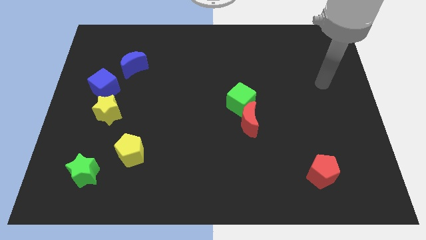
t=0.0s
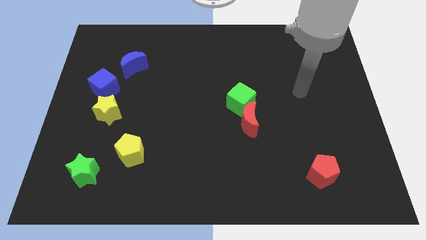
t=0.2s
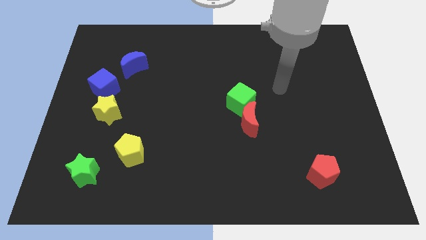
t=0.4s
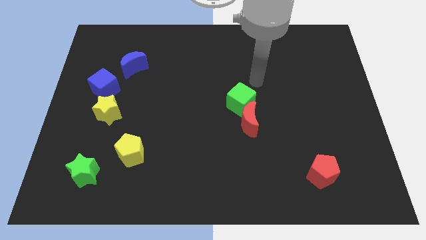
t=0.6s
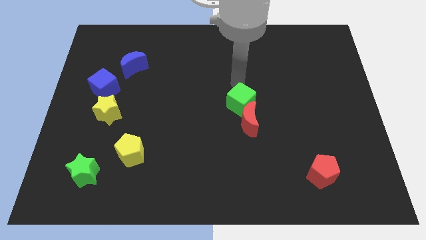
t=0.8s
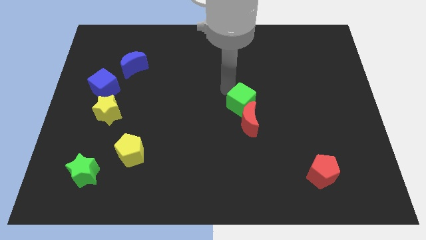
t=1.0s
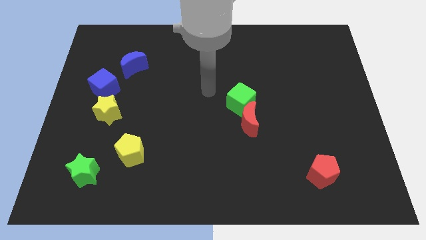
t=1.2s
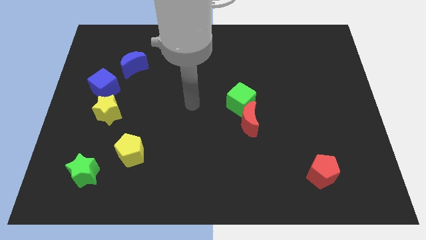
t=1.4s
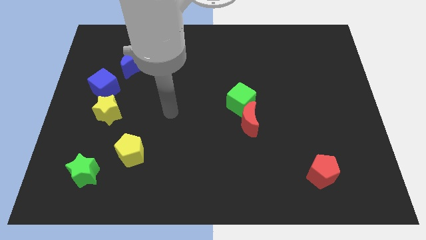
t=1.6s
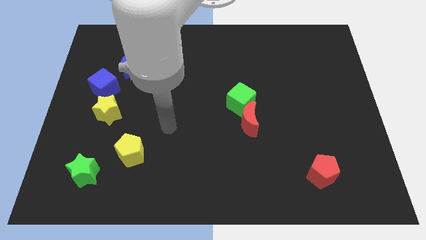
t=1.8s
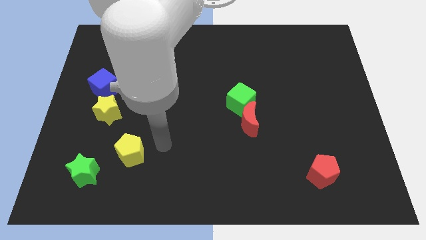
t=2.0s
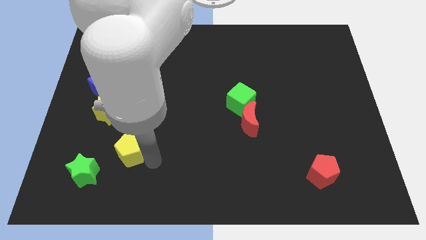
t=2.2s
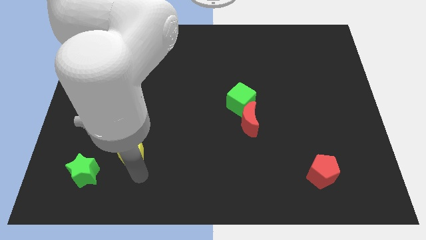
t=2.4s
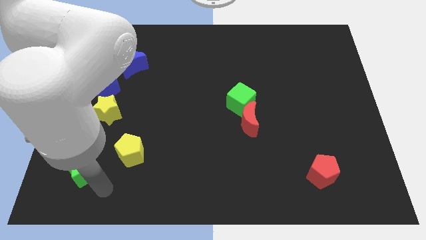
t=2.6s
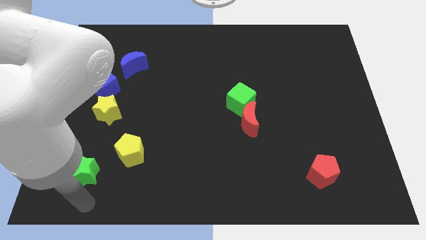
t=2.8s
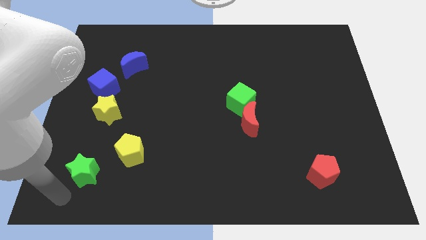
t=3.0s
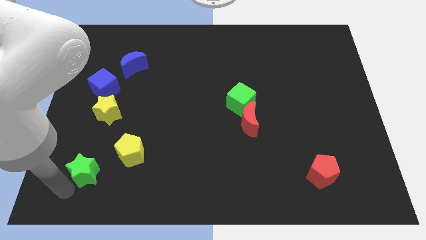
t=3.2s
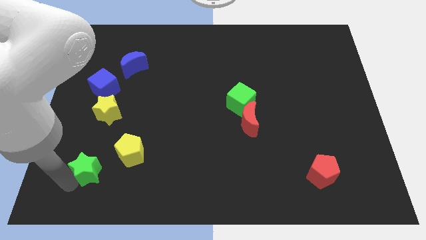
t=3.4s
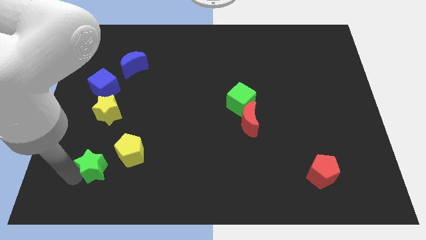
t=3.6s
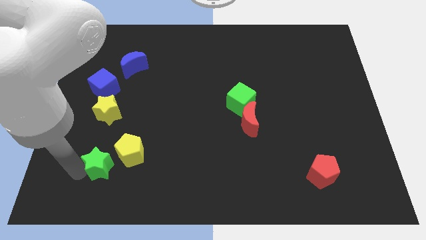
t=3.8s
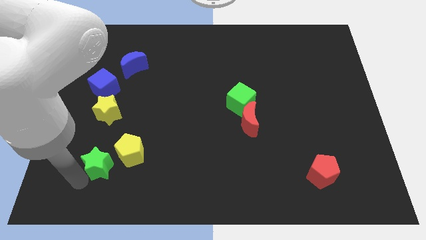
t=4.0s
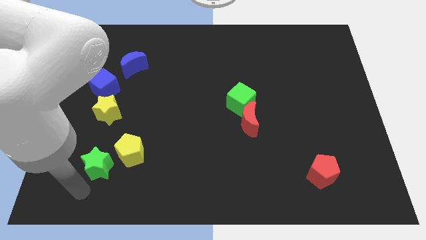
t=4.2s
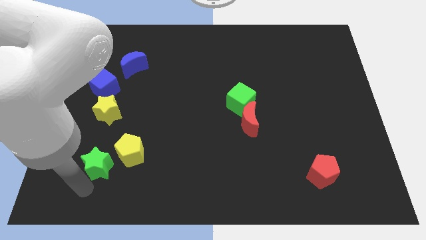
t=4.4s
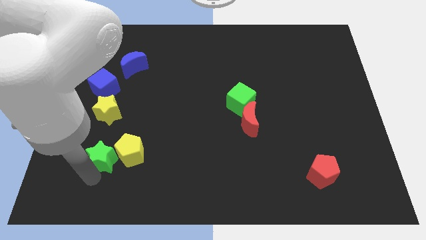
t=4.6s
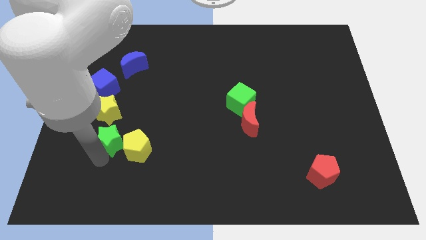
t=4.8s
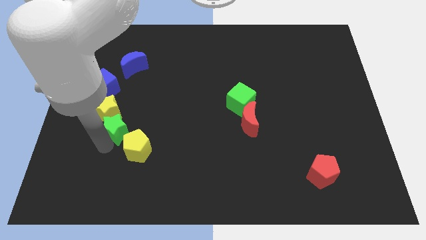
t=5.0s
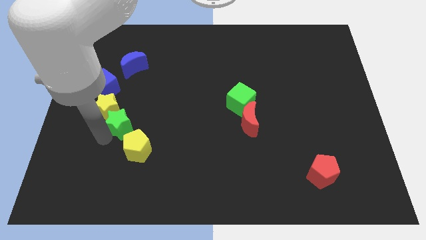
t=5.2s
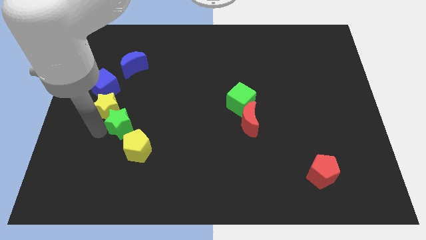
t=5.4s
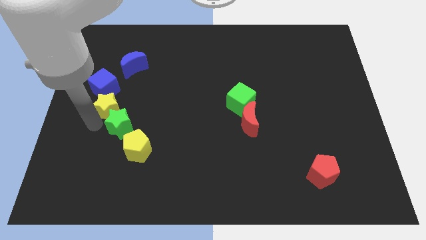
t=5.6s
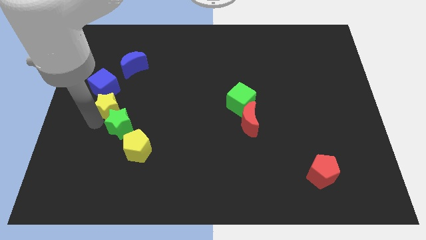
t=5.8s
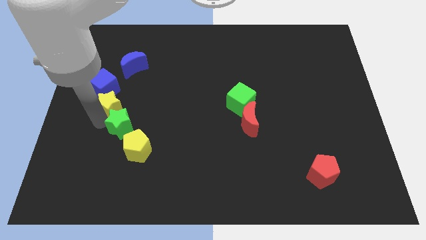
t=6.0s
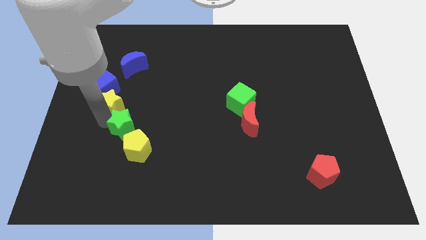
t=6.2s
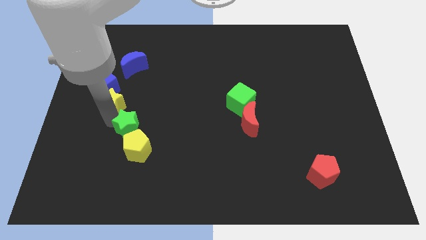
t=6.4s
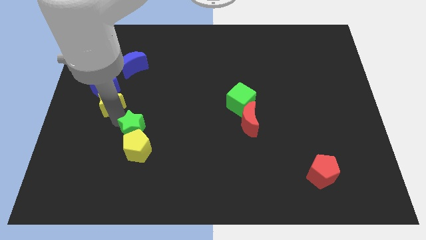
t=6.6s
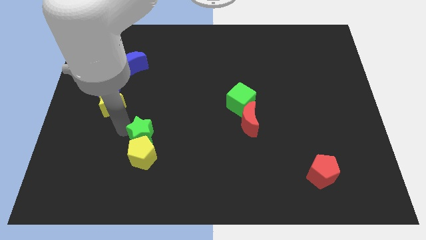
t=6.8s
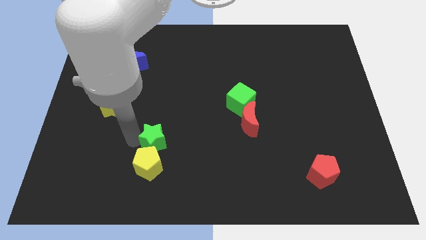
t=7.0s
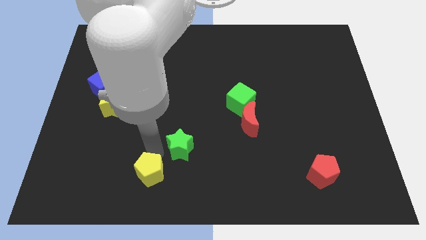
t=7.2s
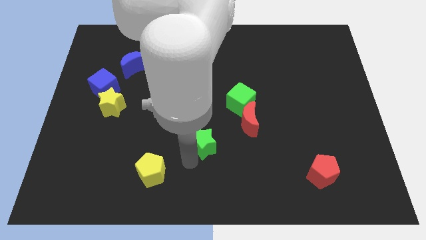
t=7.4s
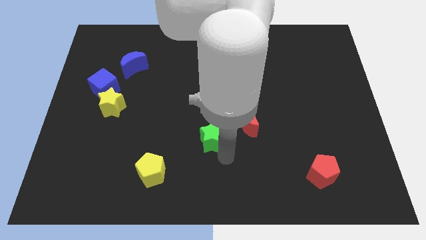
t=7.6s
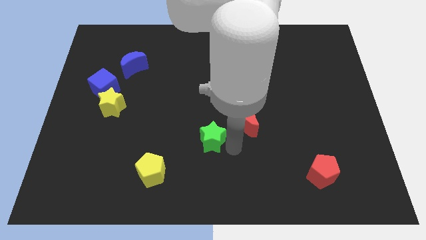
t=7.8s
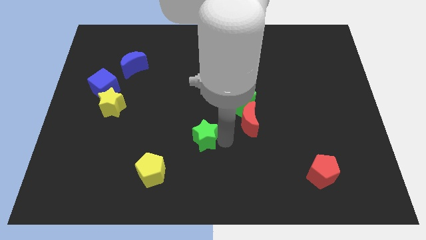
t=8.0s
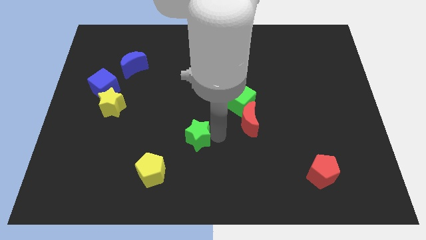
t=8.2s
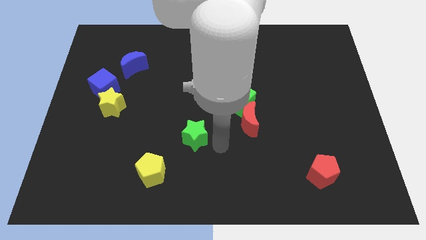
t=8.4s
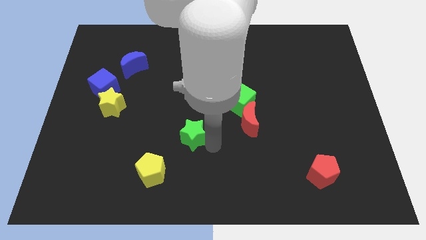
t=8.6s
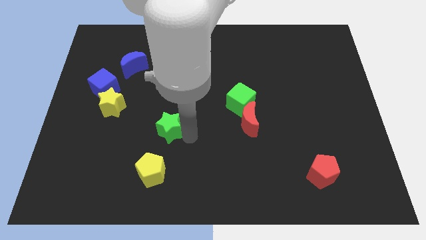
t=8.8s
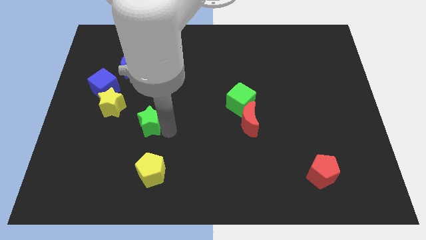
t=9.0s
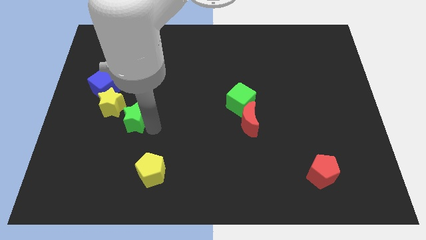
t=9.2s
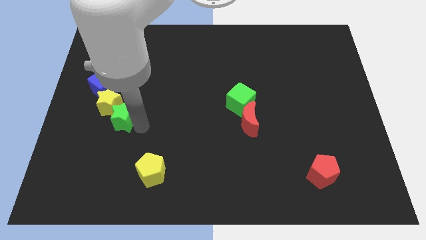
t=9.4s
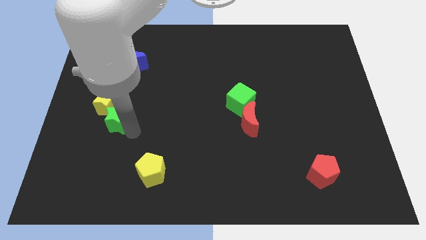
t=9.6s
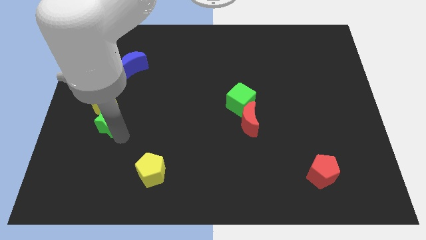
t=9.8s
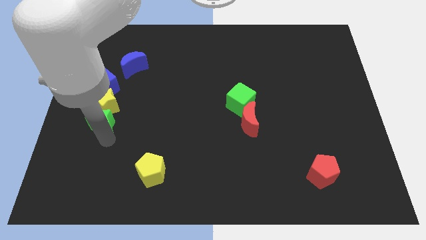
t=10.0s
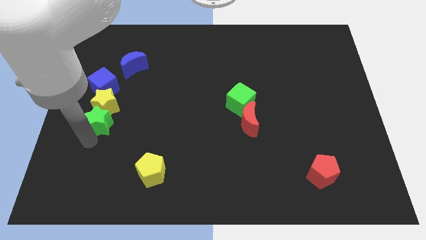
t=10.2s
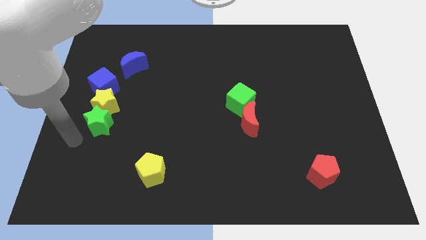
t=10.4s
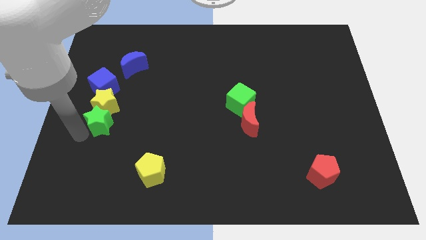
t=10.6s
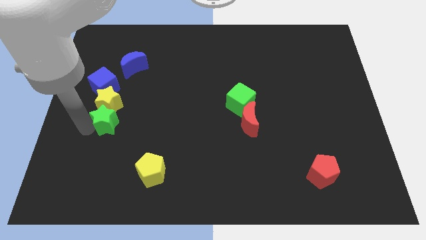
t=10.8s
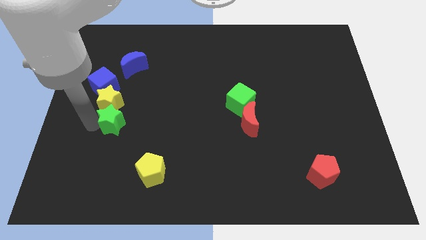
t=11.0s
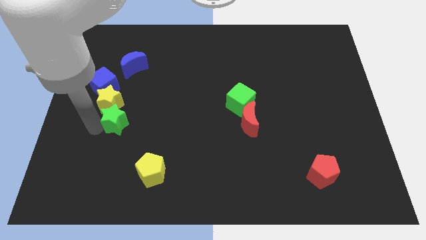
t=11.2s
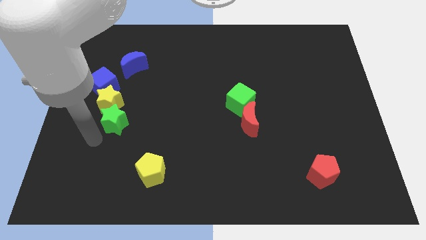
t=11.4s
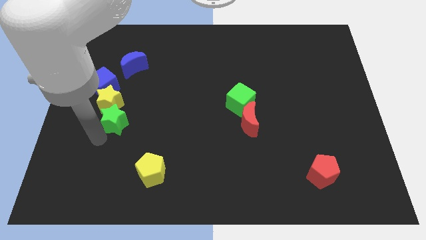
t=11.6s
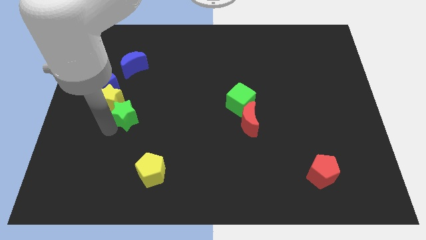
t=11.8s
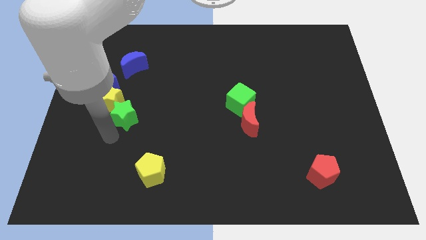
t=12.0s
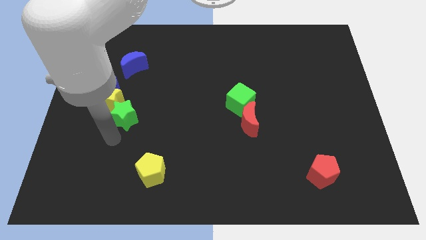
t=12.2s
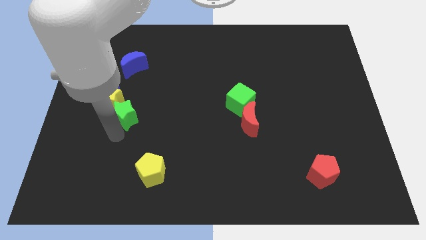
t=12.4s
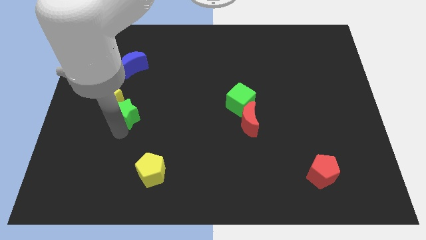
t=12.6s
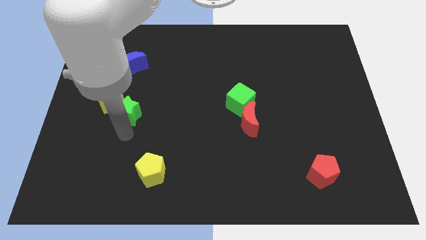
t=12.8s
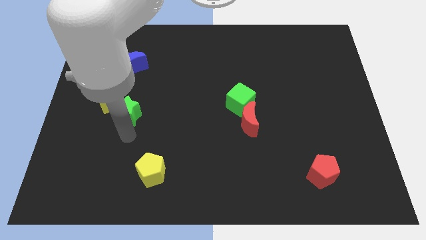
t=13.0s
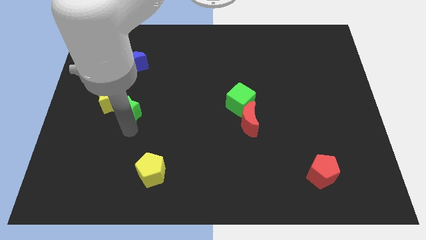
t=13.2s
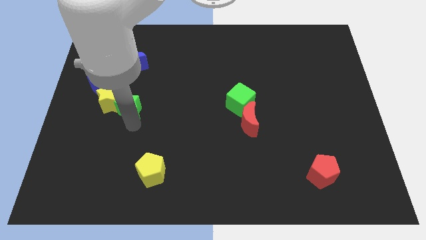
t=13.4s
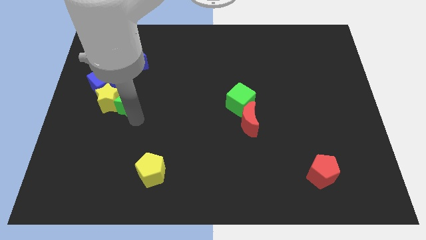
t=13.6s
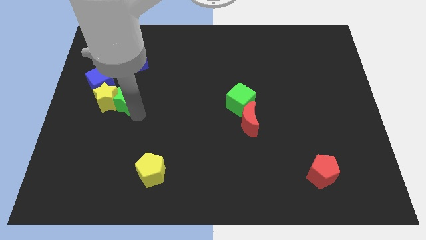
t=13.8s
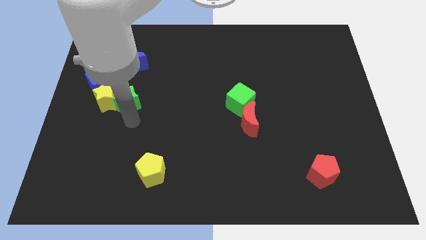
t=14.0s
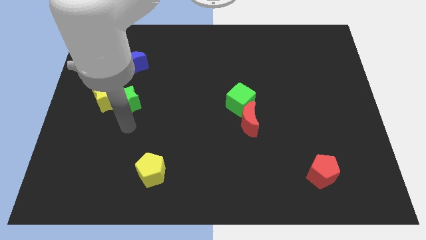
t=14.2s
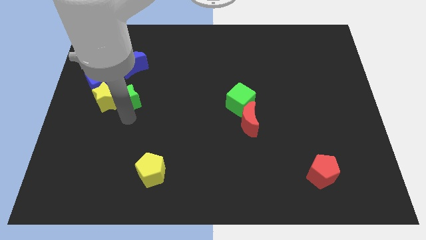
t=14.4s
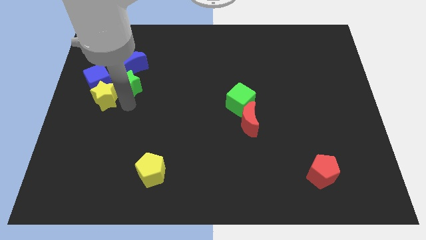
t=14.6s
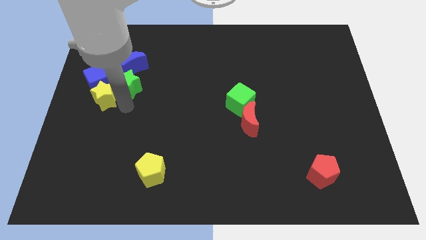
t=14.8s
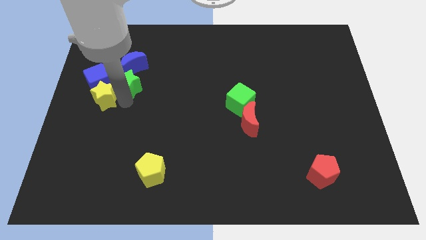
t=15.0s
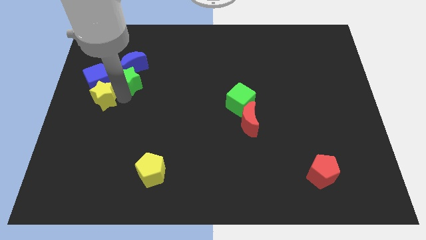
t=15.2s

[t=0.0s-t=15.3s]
push the green star close to the blue moon
